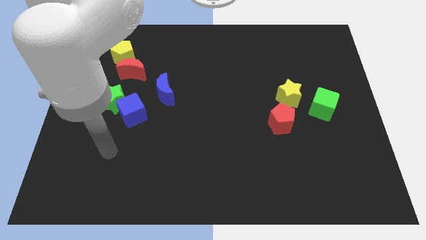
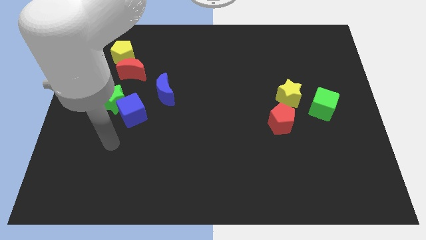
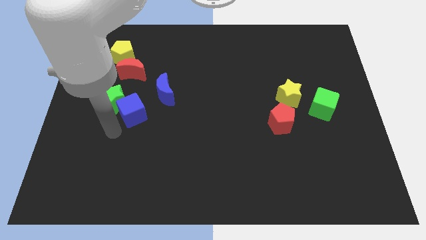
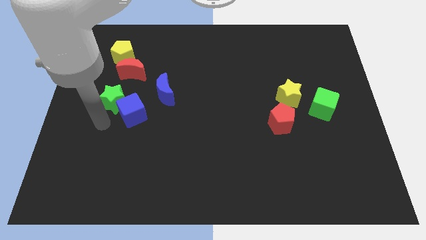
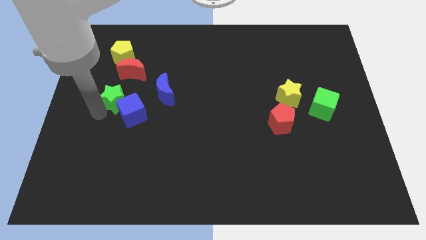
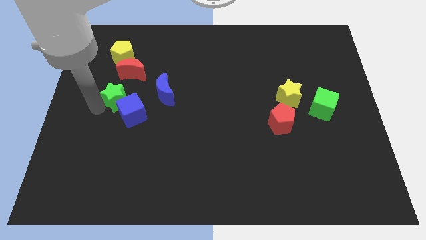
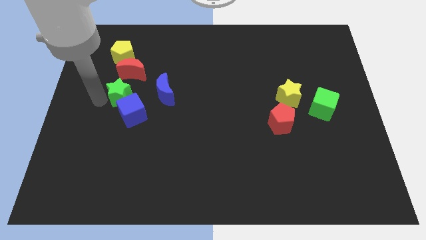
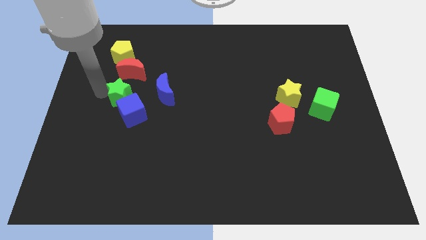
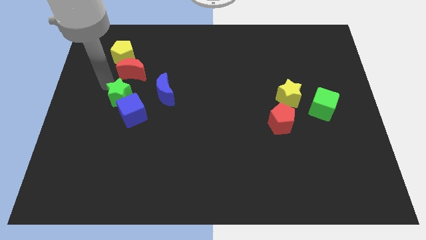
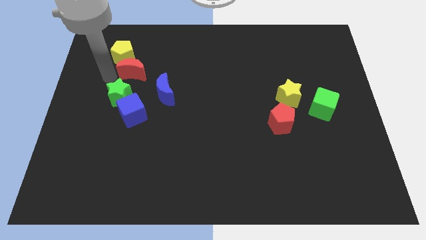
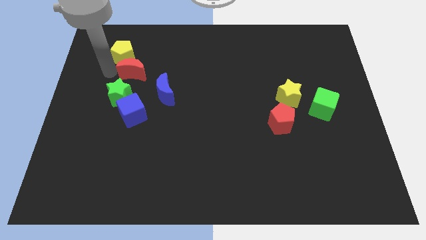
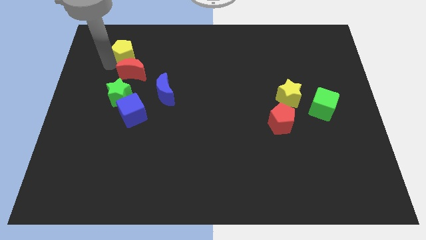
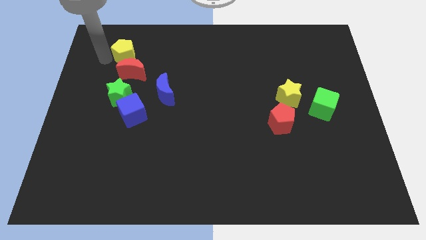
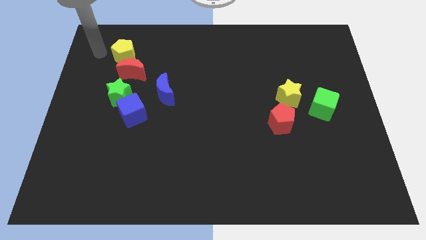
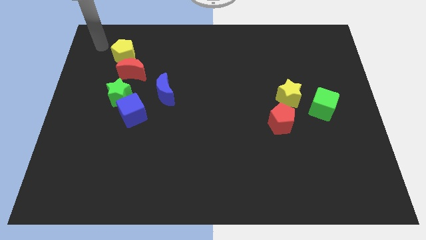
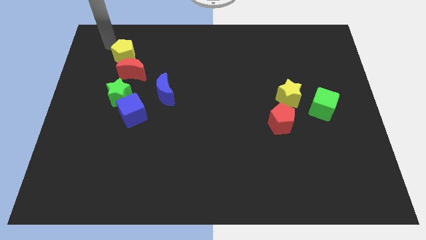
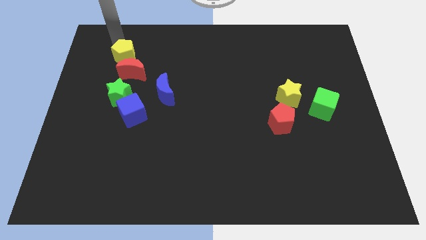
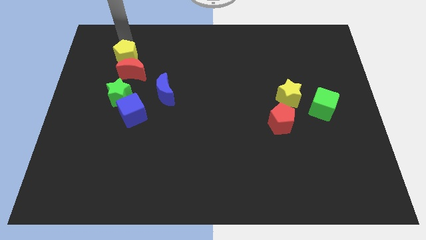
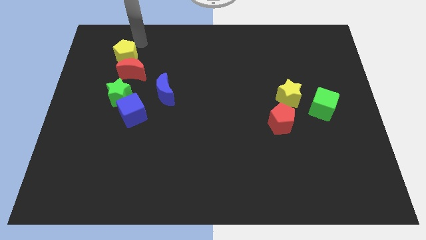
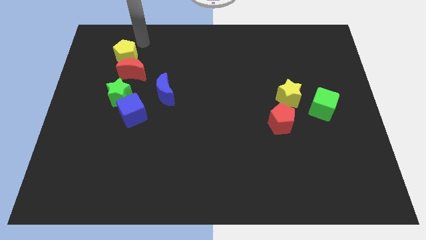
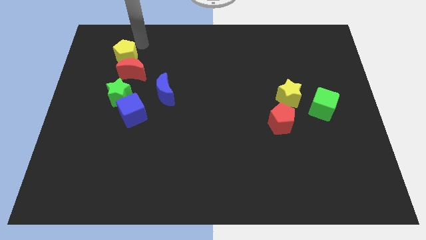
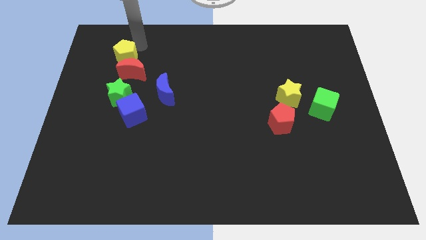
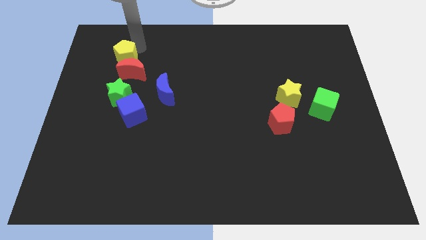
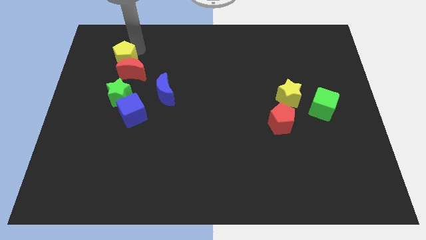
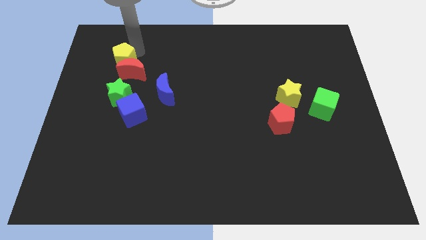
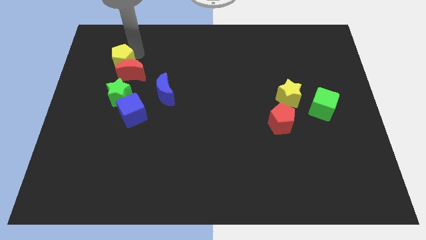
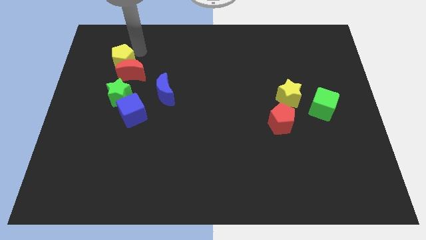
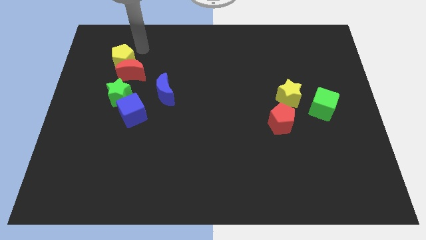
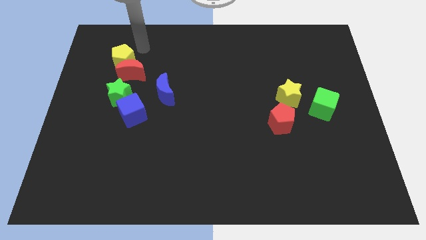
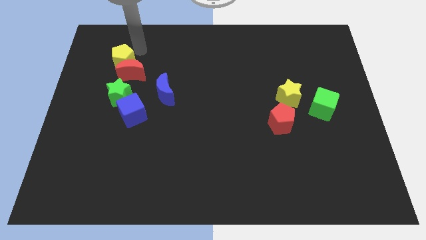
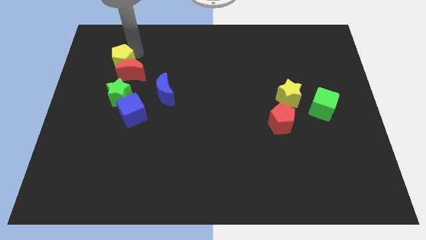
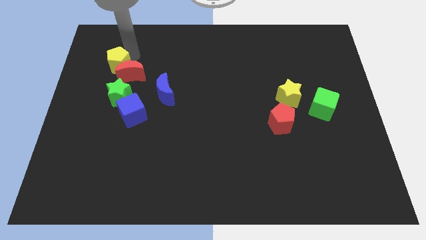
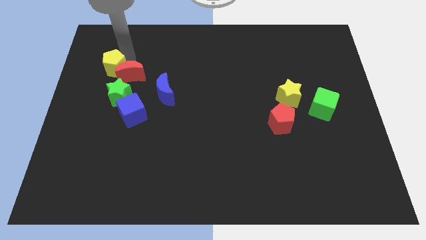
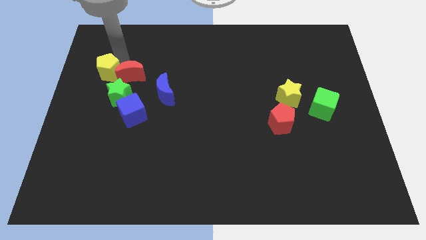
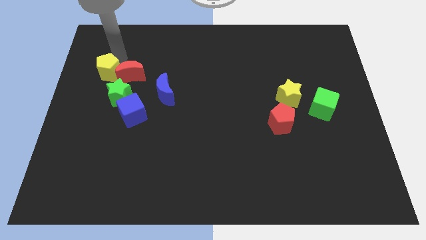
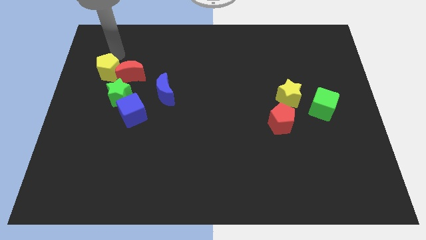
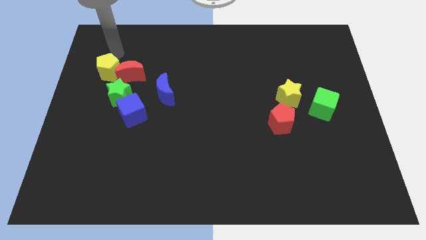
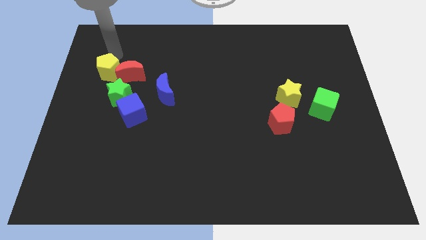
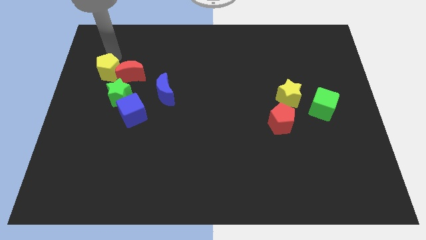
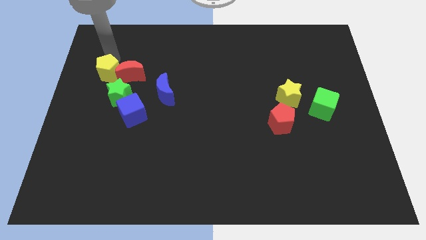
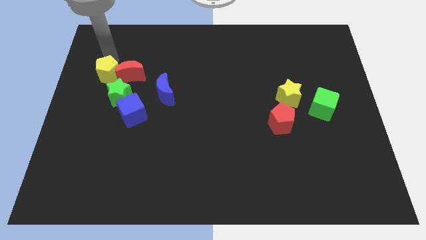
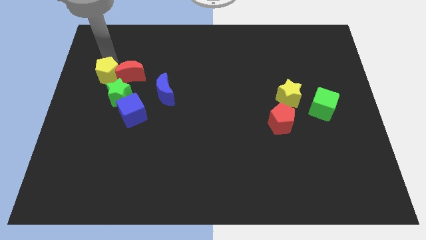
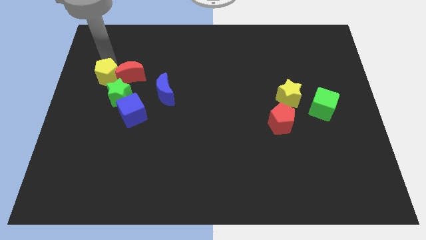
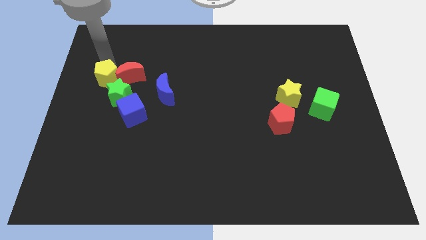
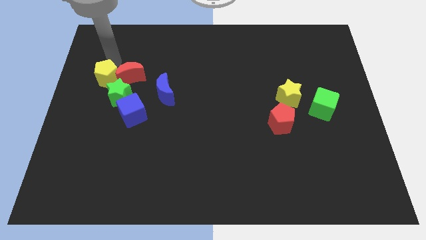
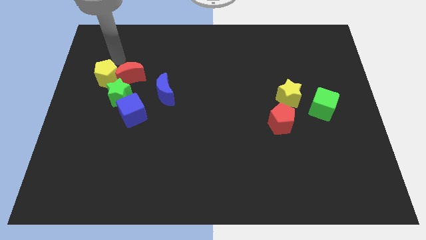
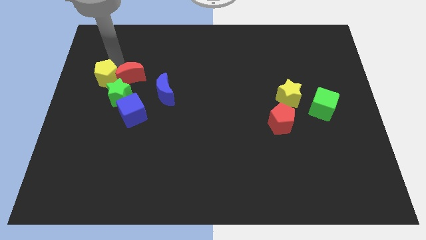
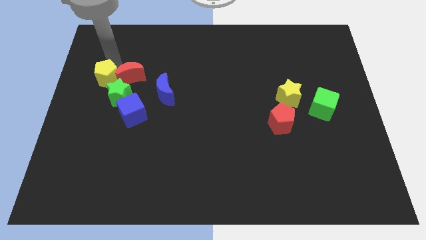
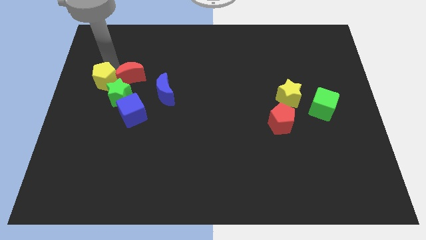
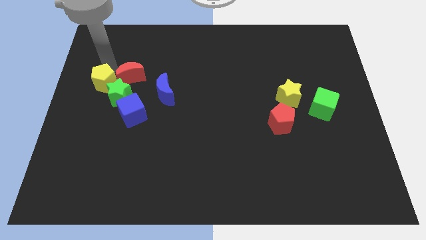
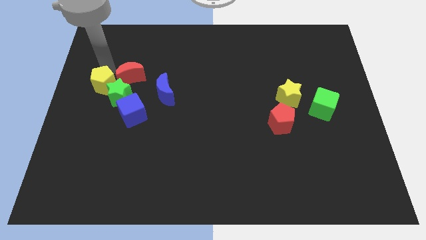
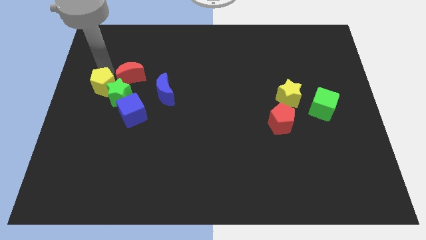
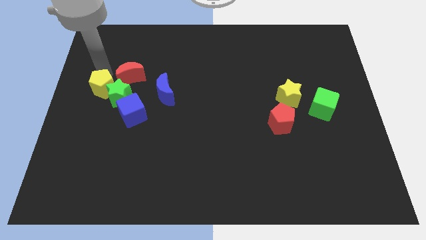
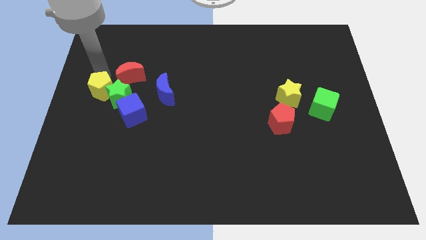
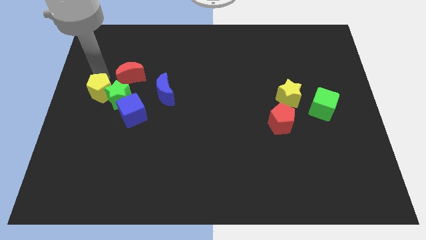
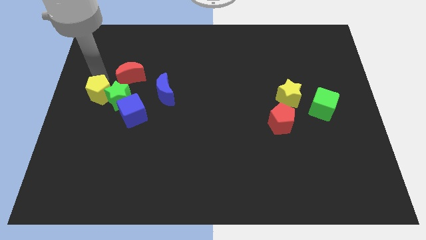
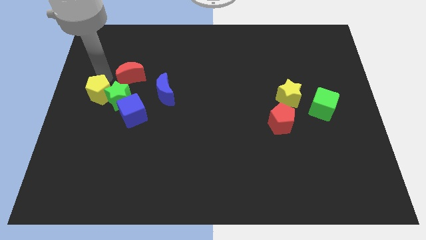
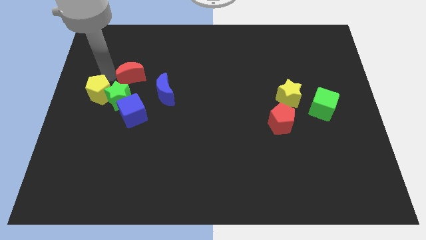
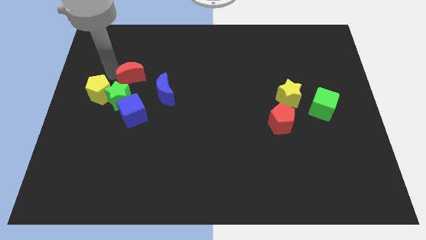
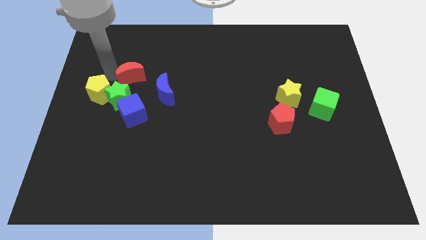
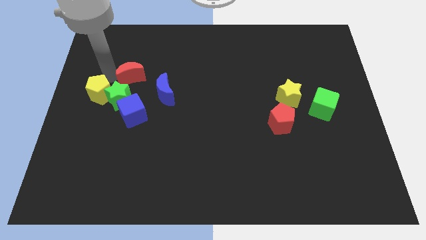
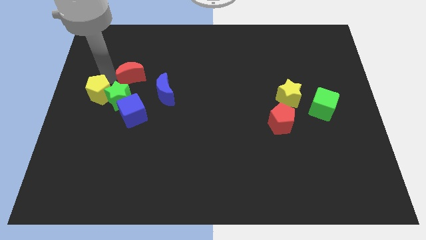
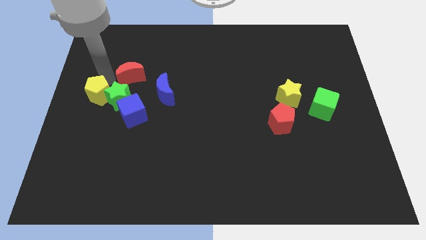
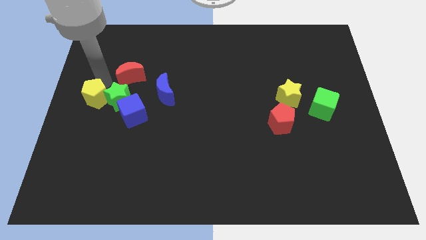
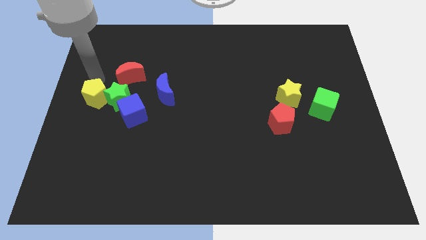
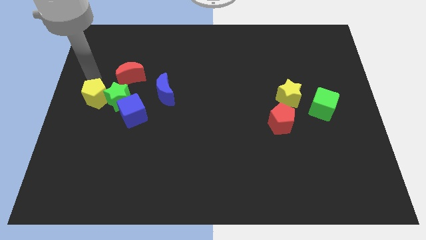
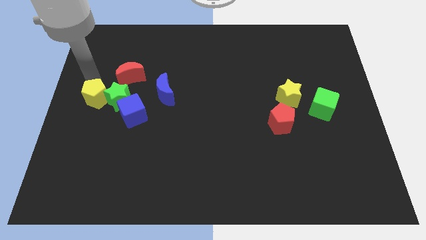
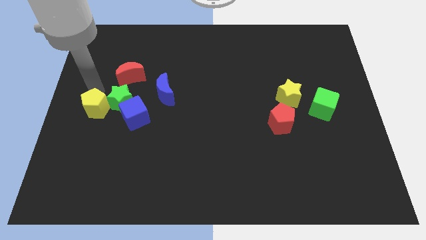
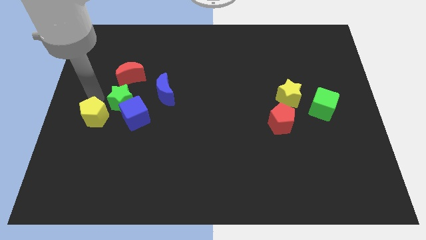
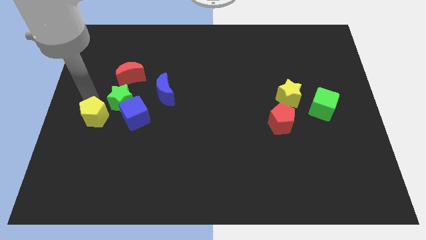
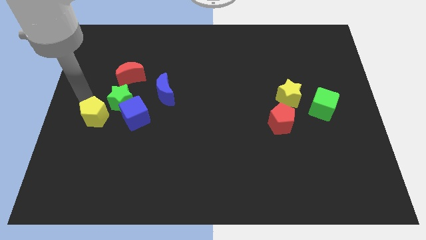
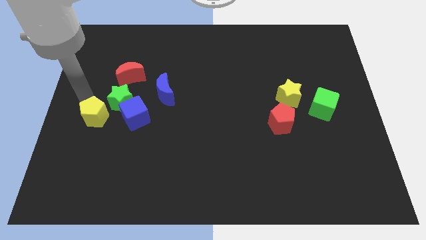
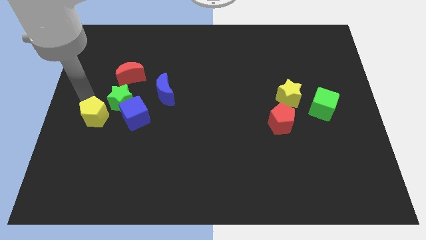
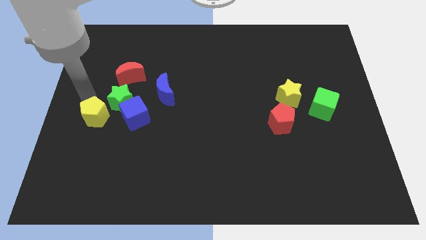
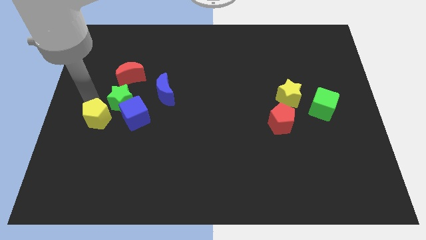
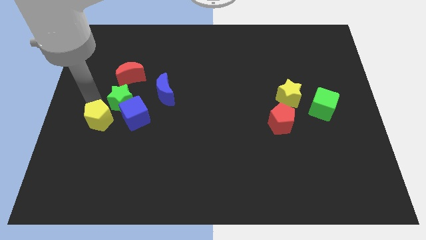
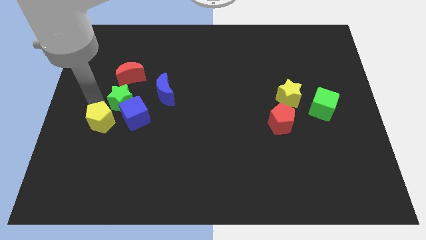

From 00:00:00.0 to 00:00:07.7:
slide the yellow pentagon diagonally down and to the left of the blue cube

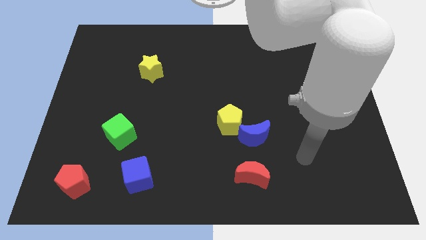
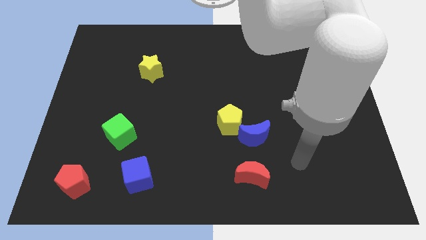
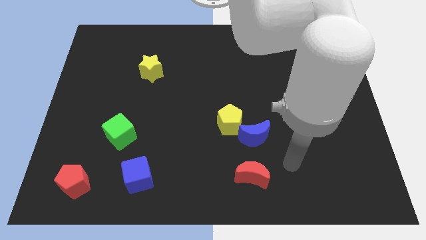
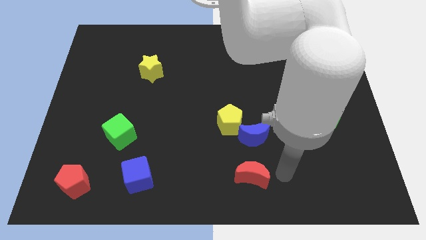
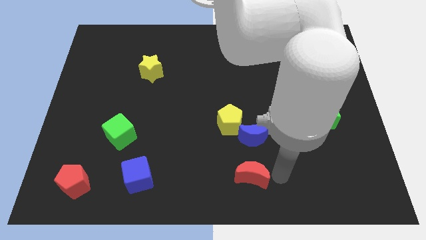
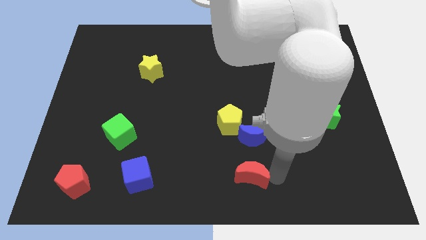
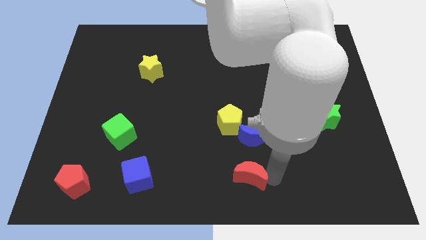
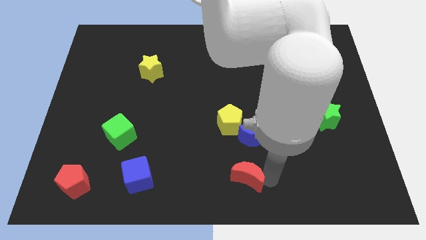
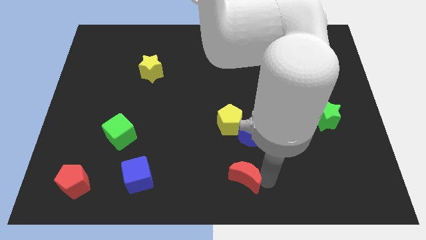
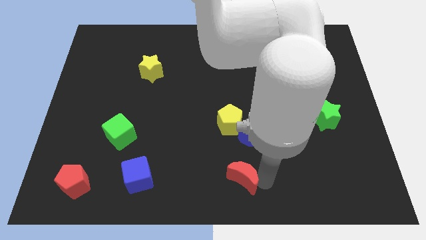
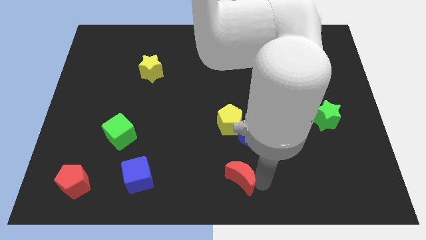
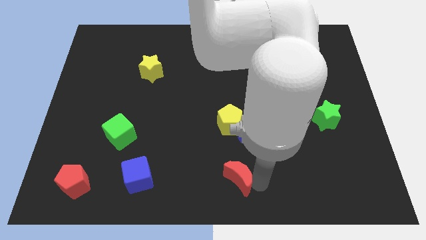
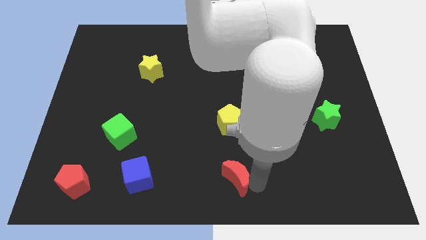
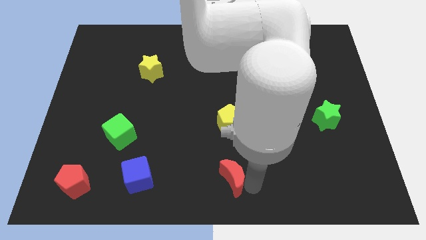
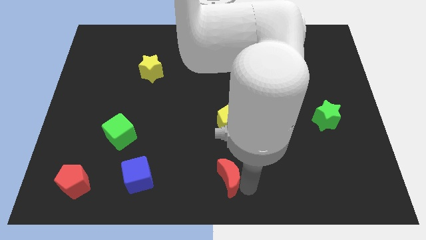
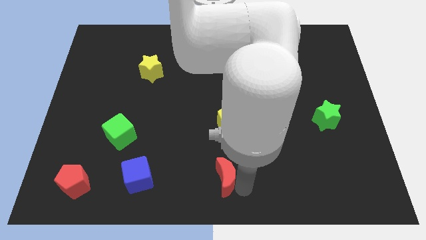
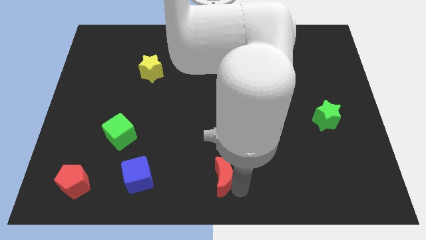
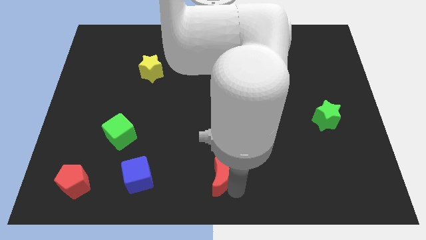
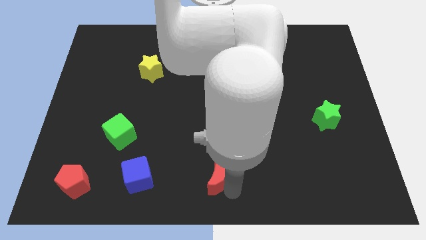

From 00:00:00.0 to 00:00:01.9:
move the red moon right of the blue cube
